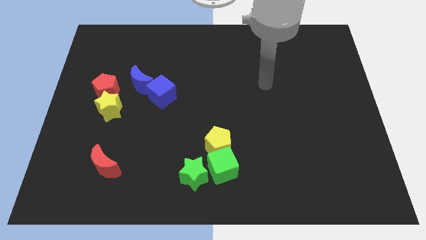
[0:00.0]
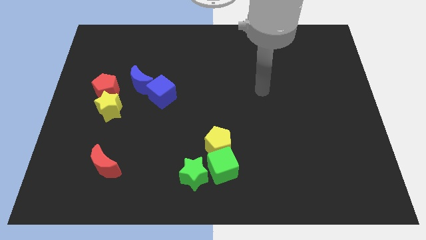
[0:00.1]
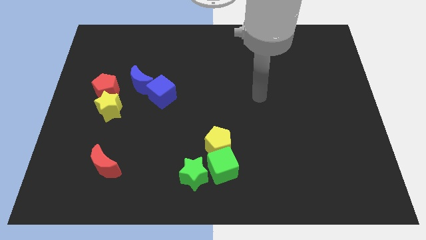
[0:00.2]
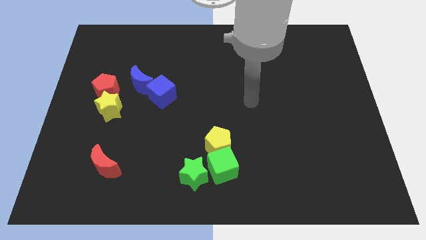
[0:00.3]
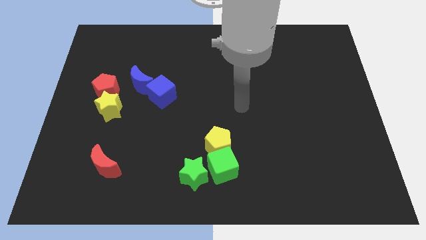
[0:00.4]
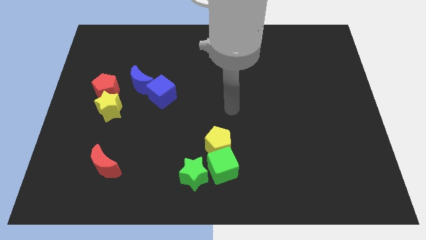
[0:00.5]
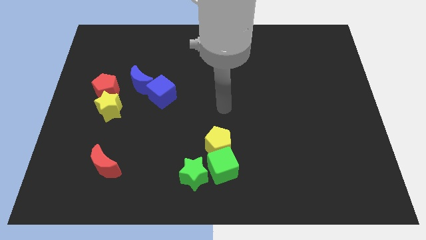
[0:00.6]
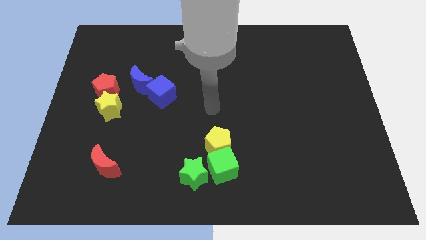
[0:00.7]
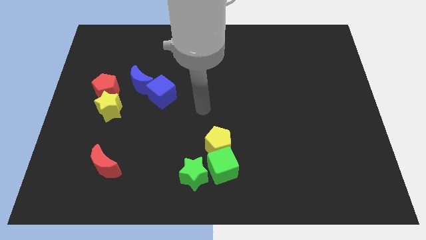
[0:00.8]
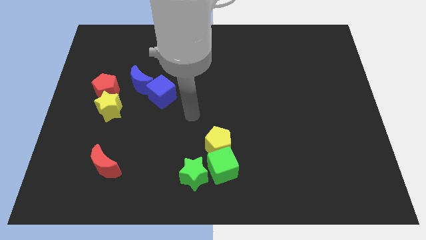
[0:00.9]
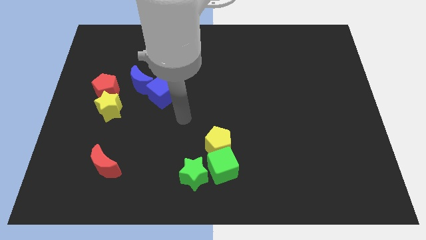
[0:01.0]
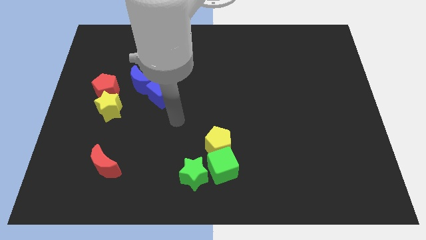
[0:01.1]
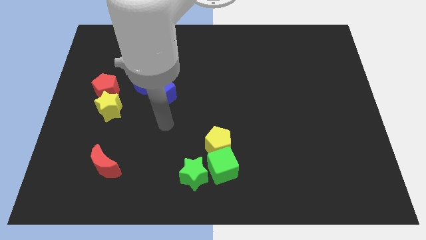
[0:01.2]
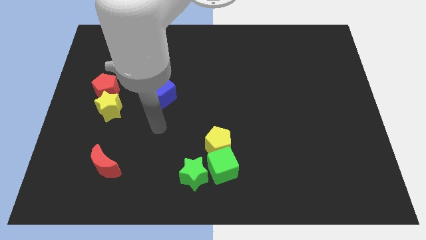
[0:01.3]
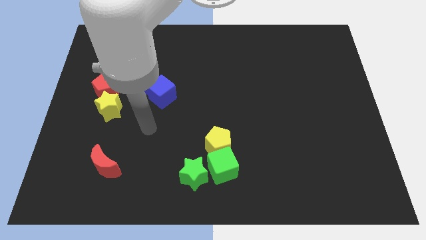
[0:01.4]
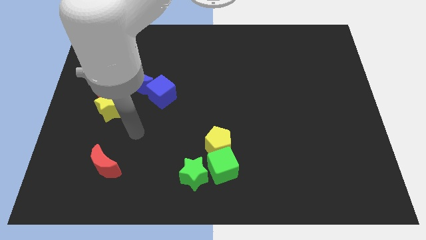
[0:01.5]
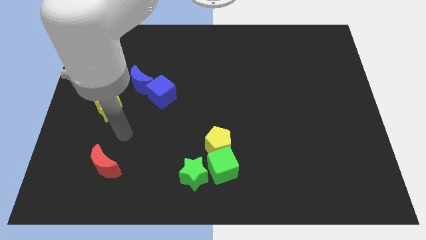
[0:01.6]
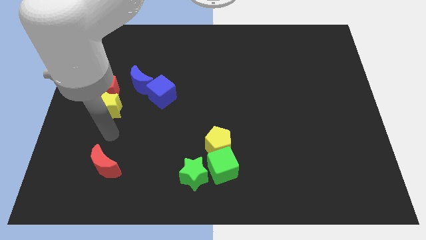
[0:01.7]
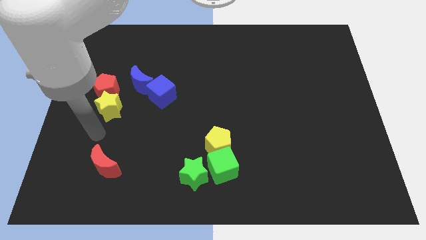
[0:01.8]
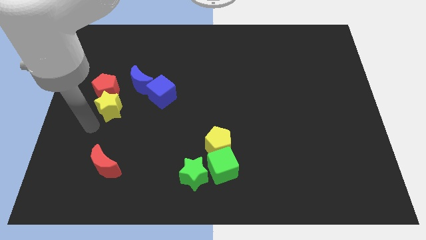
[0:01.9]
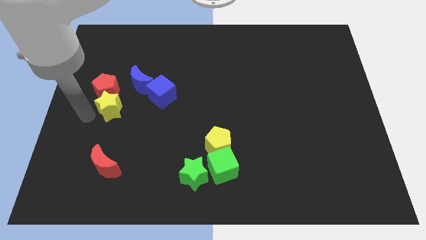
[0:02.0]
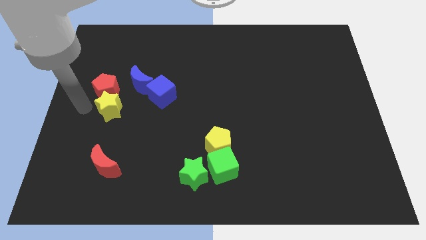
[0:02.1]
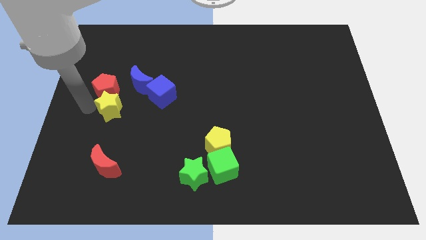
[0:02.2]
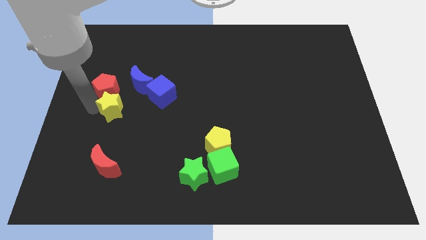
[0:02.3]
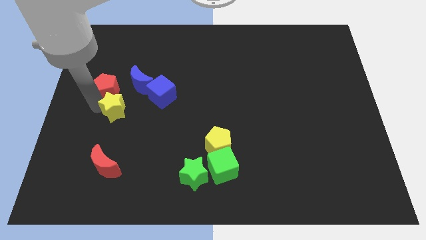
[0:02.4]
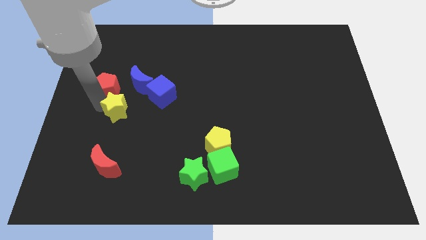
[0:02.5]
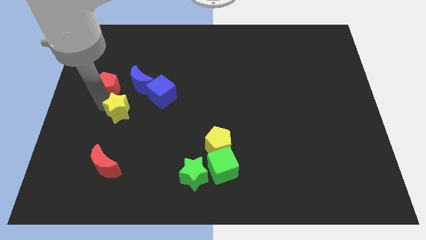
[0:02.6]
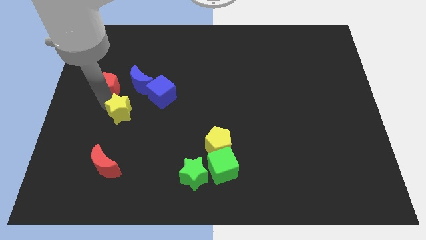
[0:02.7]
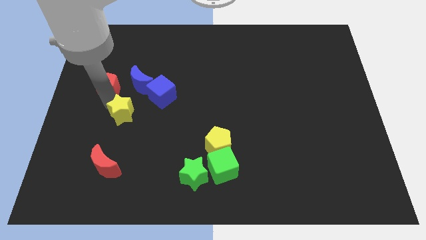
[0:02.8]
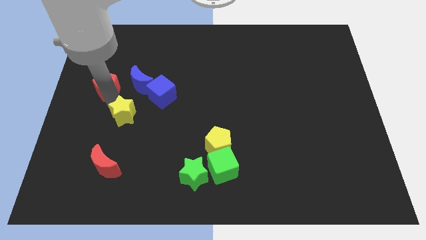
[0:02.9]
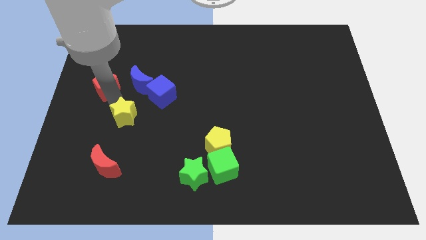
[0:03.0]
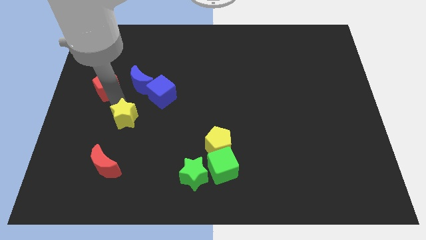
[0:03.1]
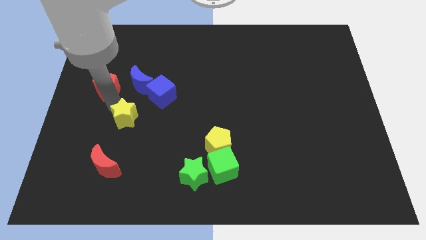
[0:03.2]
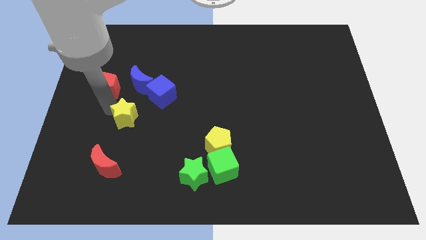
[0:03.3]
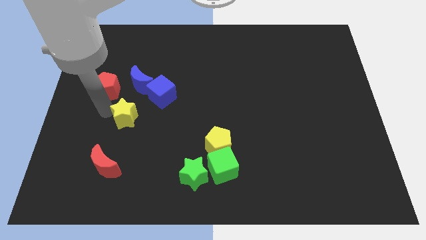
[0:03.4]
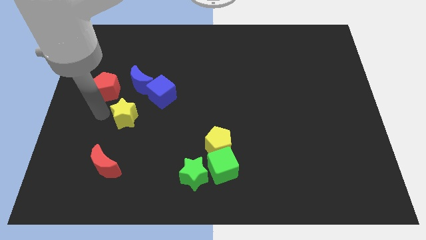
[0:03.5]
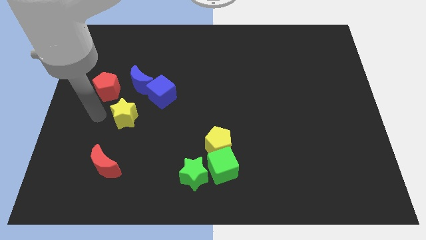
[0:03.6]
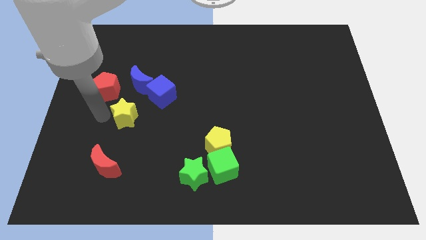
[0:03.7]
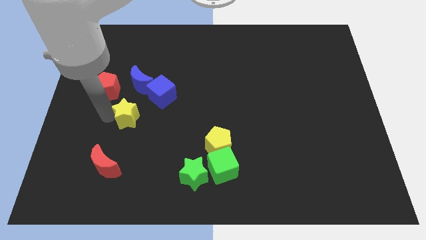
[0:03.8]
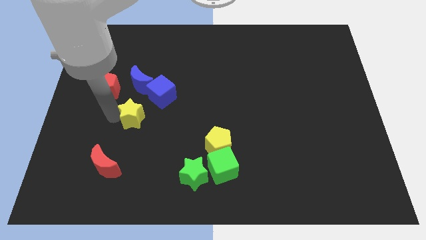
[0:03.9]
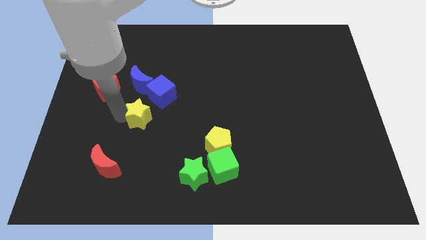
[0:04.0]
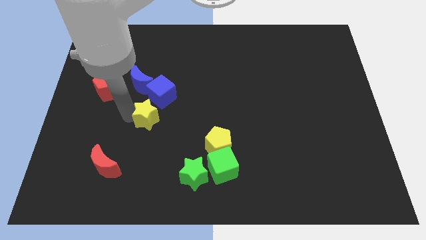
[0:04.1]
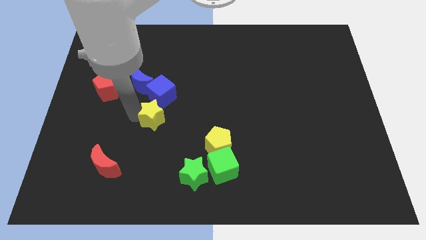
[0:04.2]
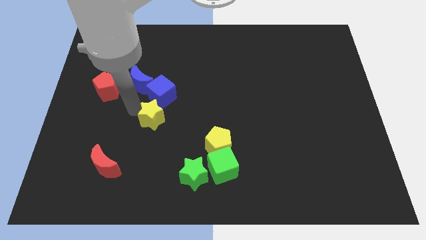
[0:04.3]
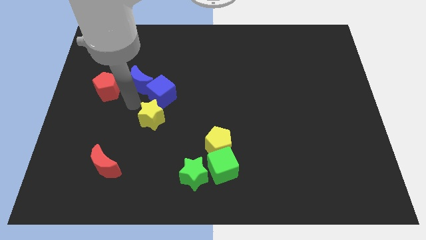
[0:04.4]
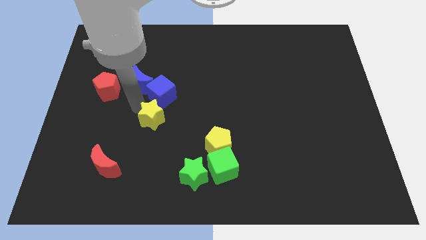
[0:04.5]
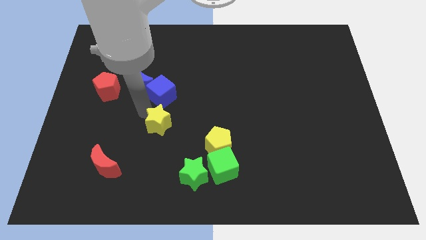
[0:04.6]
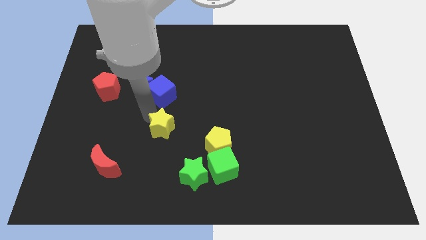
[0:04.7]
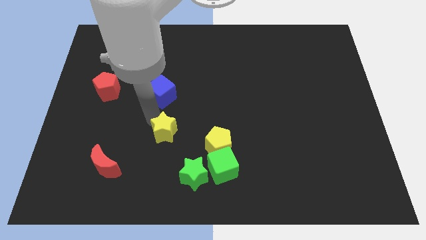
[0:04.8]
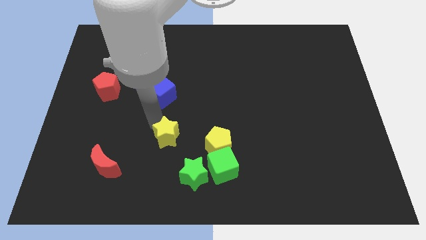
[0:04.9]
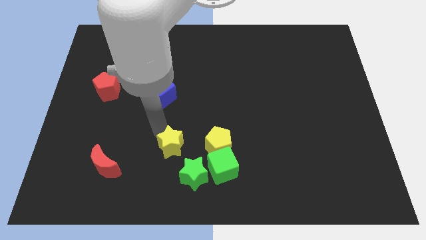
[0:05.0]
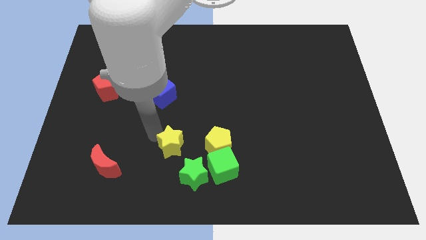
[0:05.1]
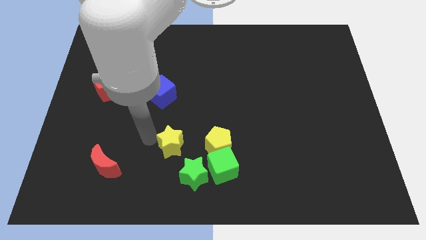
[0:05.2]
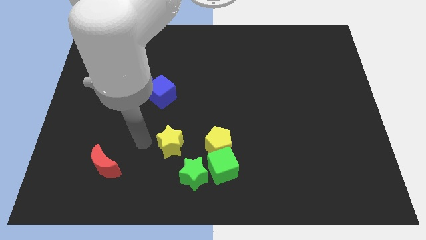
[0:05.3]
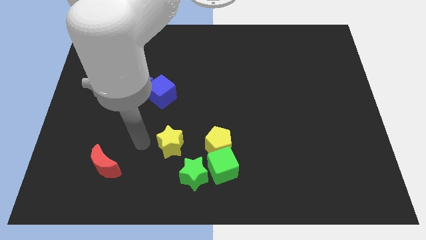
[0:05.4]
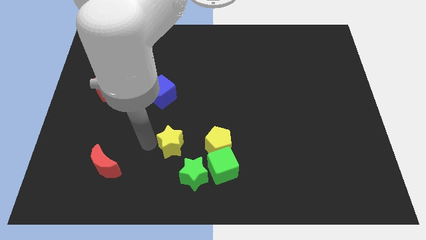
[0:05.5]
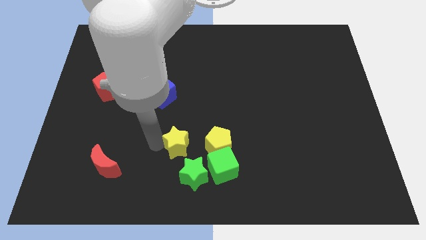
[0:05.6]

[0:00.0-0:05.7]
put the yellow star to the top left side of the green cube

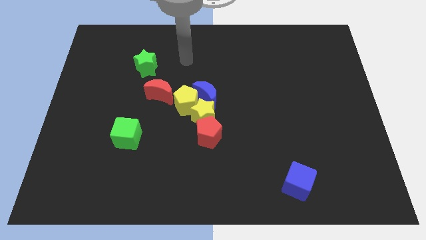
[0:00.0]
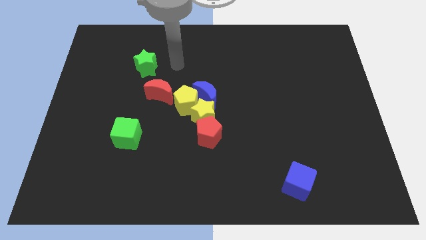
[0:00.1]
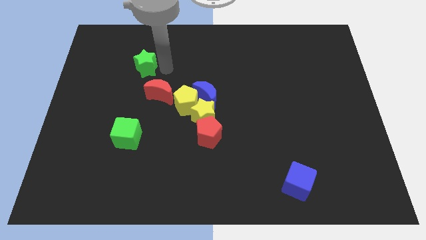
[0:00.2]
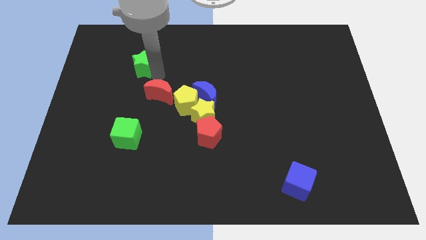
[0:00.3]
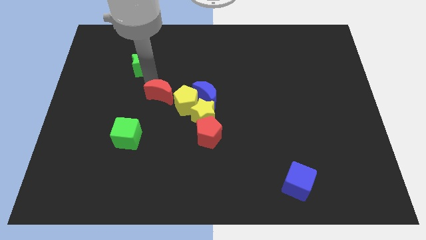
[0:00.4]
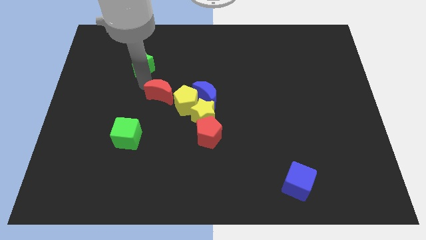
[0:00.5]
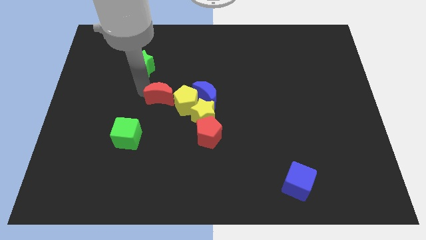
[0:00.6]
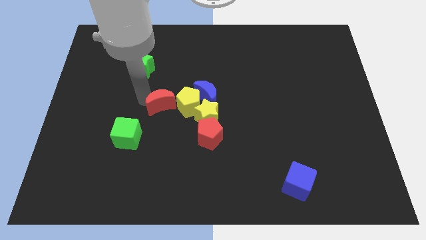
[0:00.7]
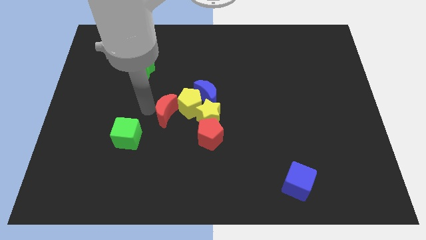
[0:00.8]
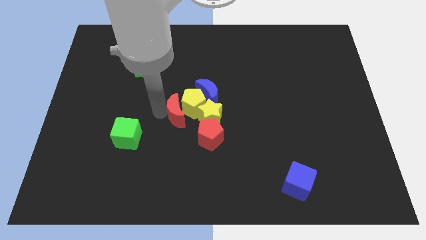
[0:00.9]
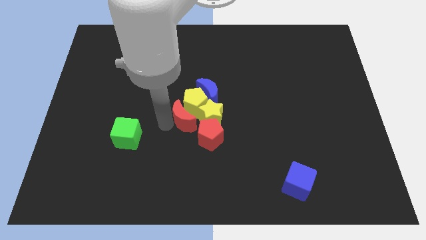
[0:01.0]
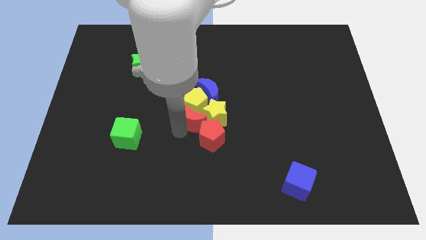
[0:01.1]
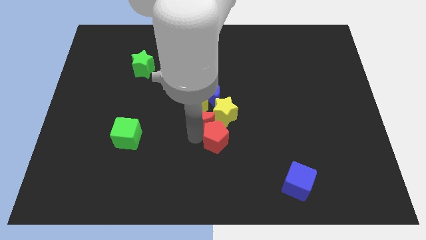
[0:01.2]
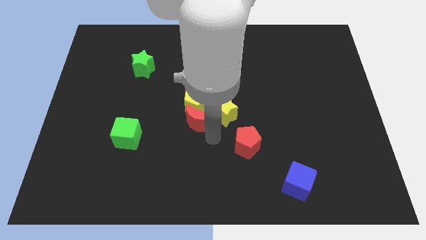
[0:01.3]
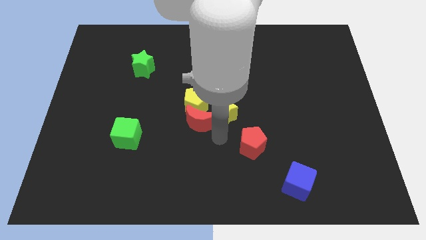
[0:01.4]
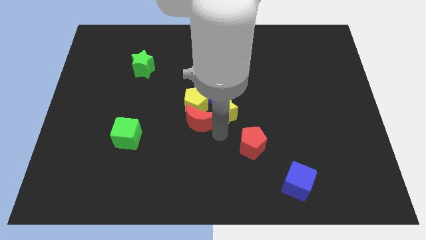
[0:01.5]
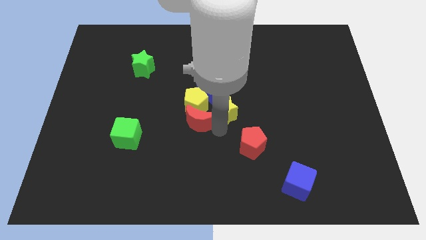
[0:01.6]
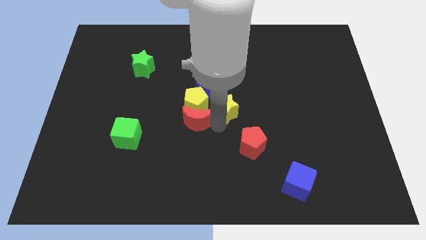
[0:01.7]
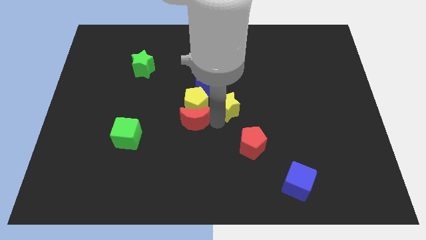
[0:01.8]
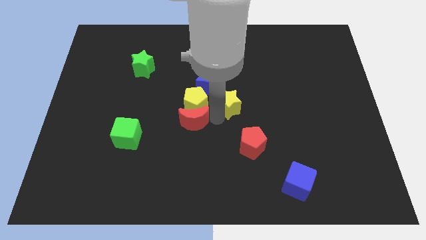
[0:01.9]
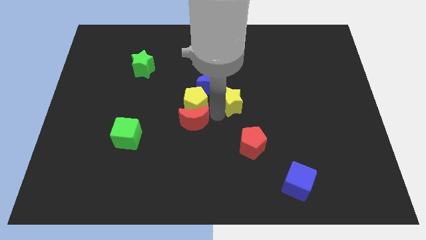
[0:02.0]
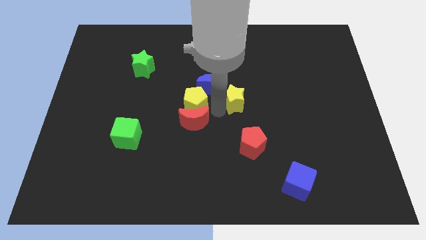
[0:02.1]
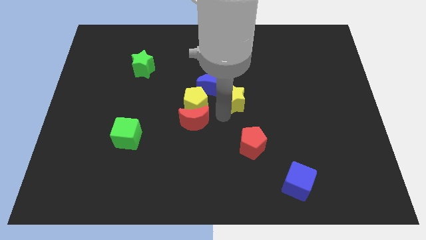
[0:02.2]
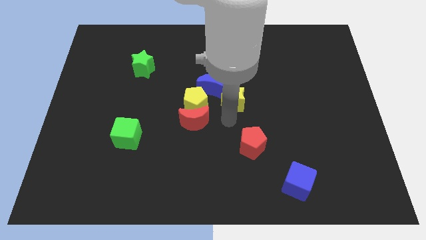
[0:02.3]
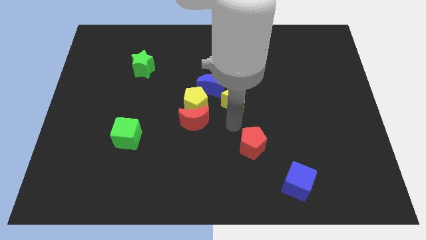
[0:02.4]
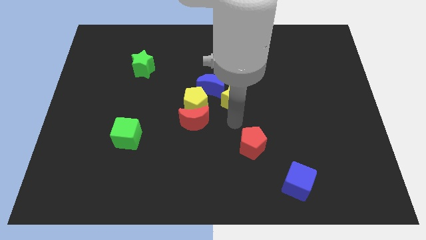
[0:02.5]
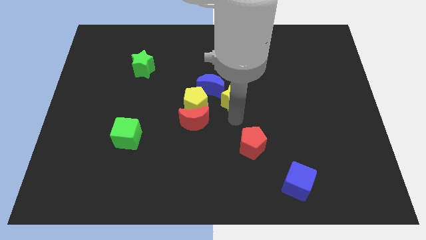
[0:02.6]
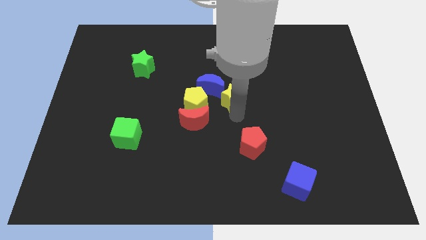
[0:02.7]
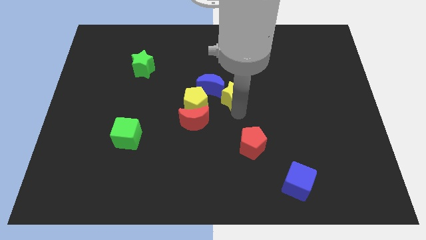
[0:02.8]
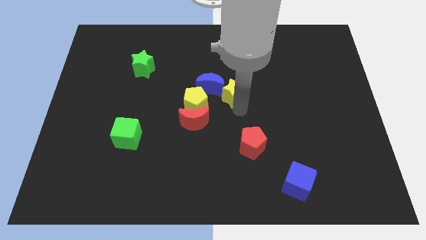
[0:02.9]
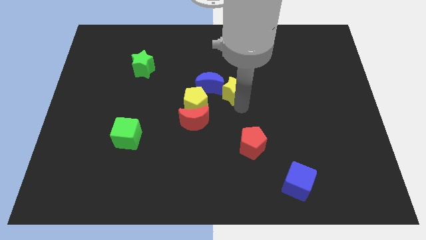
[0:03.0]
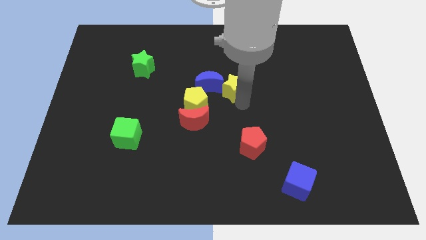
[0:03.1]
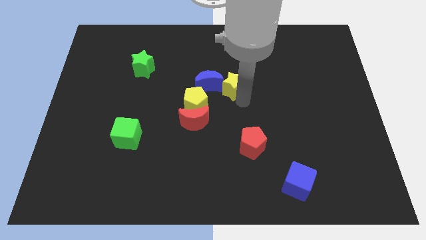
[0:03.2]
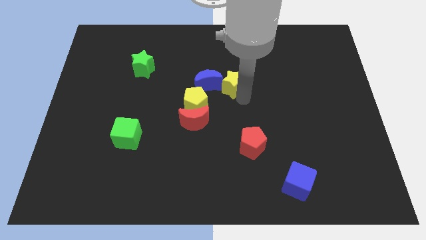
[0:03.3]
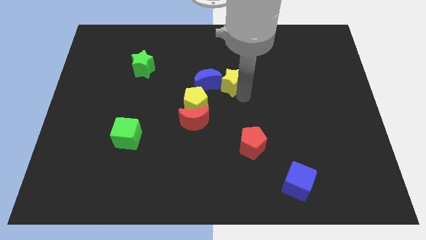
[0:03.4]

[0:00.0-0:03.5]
put the yellow star to the top right side of the blue moon
